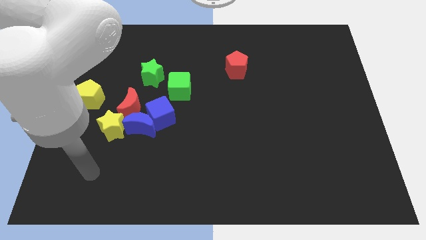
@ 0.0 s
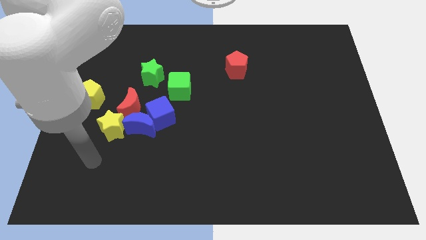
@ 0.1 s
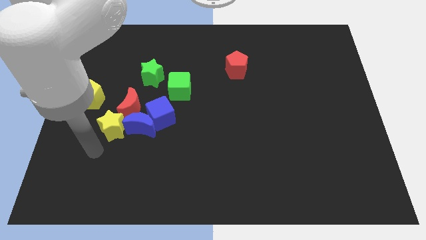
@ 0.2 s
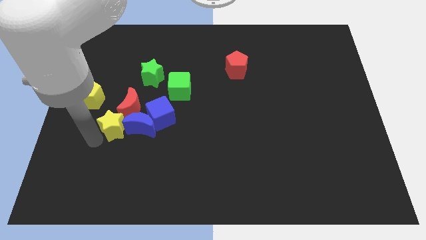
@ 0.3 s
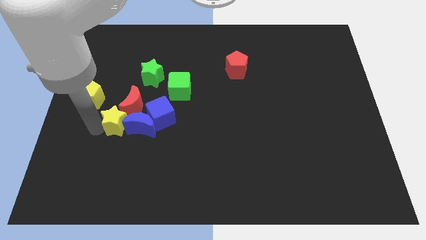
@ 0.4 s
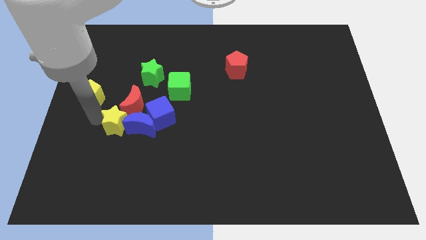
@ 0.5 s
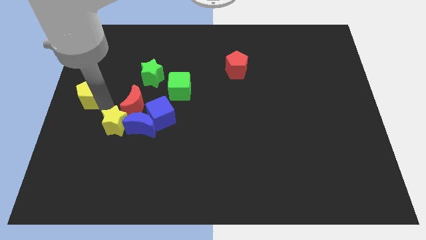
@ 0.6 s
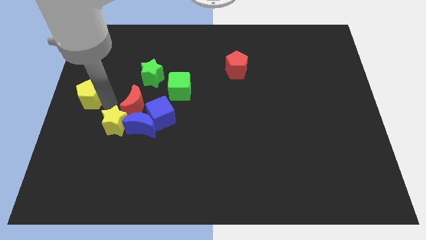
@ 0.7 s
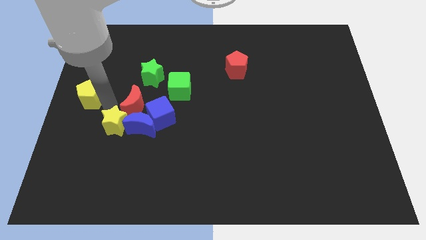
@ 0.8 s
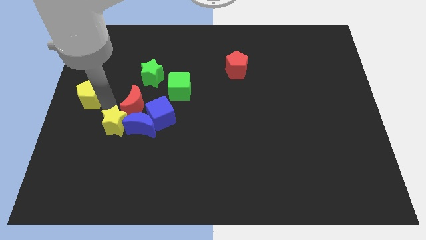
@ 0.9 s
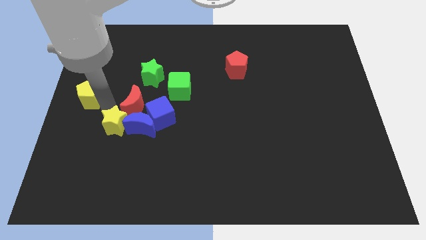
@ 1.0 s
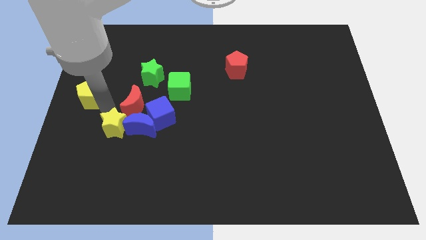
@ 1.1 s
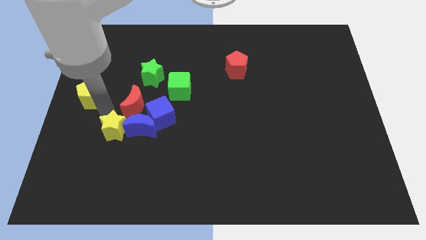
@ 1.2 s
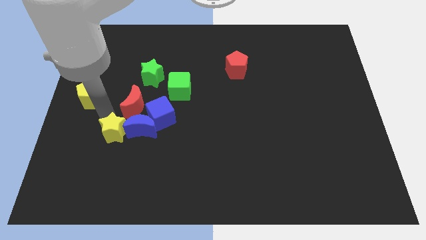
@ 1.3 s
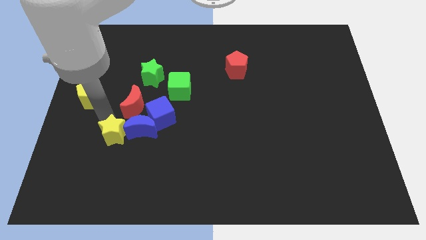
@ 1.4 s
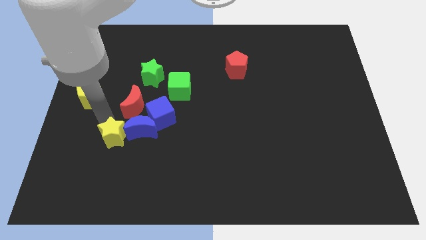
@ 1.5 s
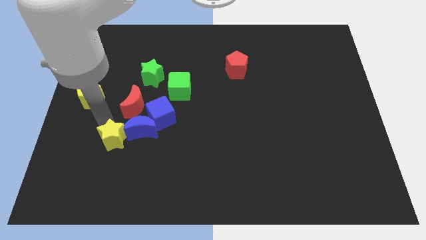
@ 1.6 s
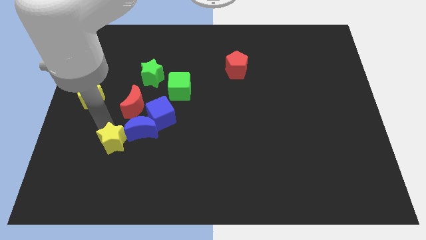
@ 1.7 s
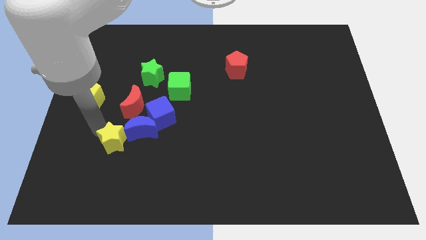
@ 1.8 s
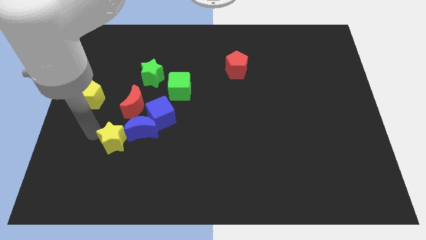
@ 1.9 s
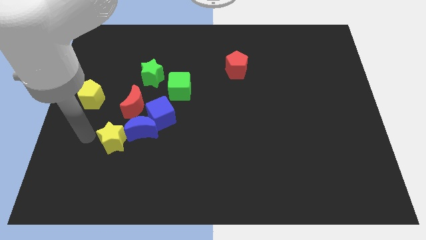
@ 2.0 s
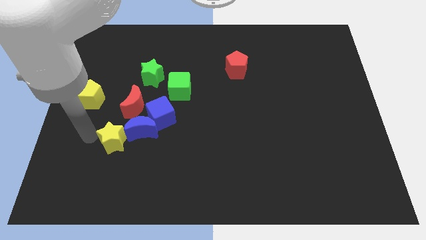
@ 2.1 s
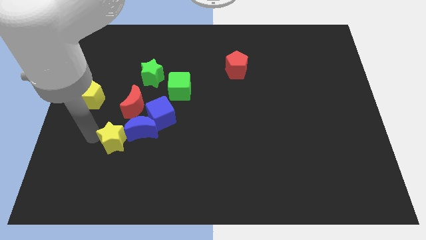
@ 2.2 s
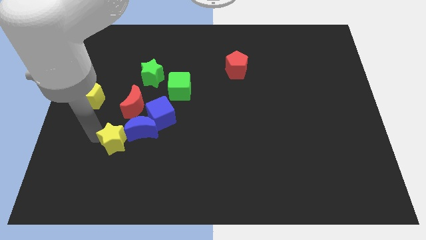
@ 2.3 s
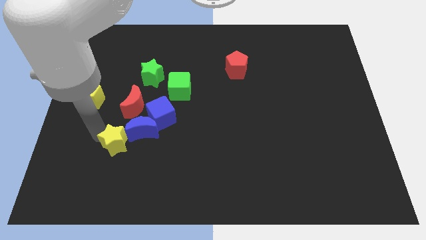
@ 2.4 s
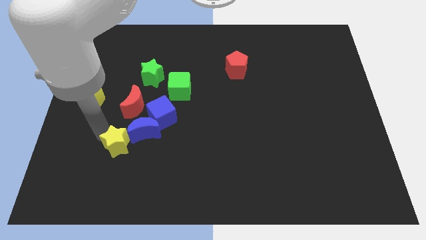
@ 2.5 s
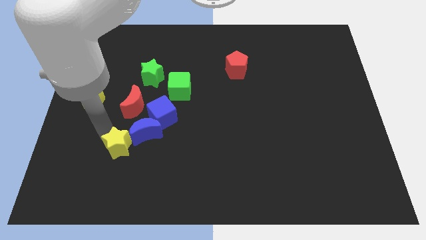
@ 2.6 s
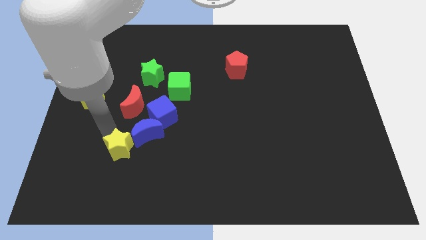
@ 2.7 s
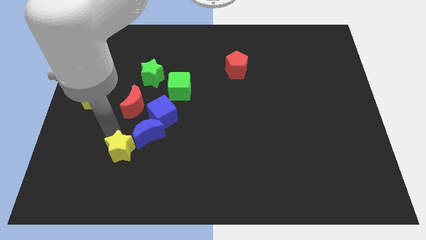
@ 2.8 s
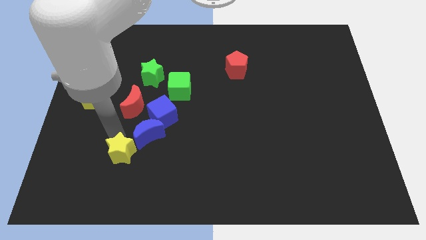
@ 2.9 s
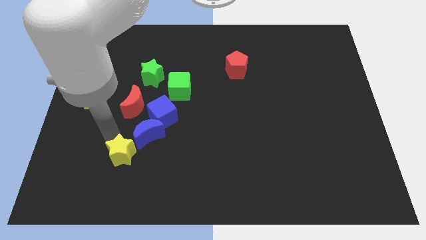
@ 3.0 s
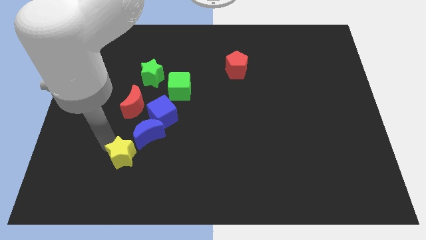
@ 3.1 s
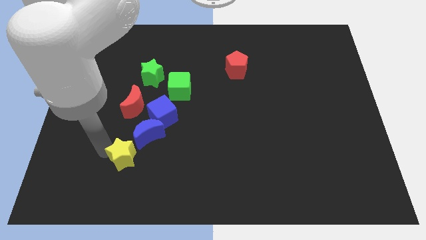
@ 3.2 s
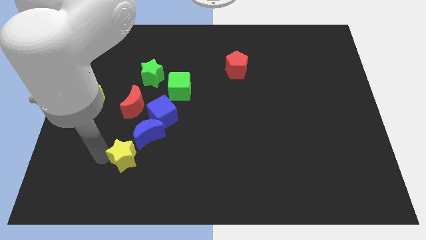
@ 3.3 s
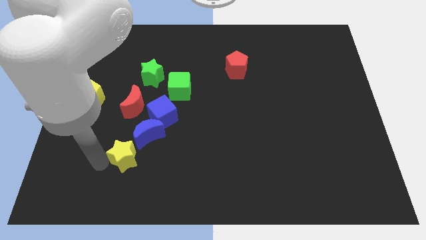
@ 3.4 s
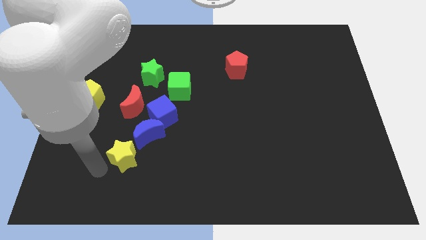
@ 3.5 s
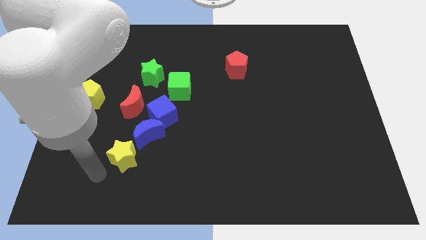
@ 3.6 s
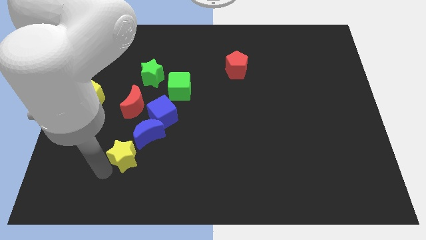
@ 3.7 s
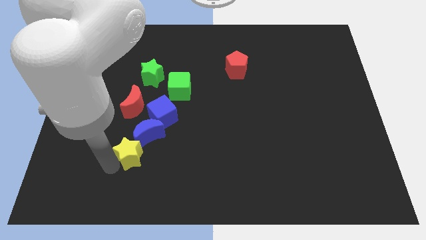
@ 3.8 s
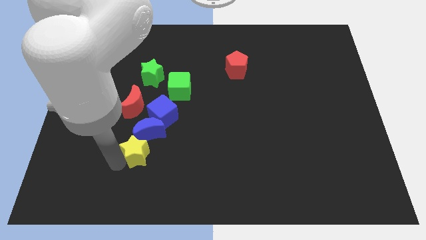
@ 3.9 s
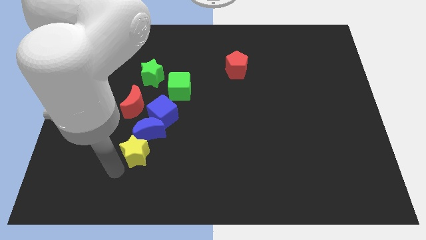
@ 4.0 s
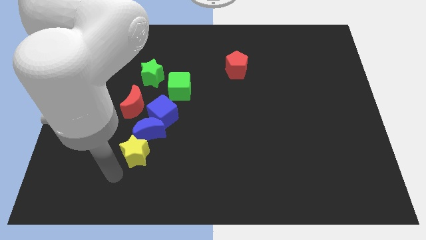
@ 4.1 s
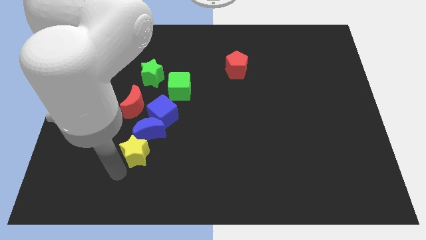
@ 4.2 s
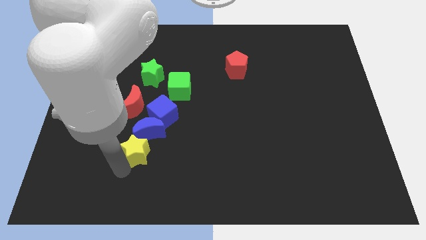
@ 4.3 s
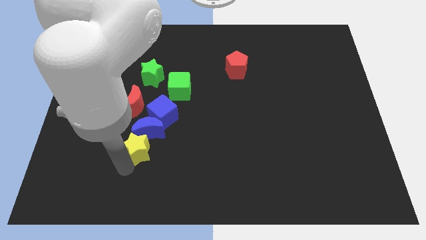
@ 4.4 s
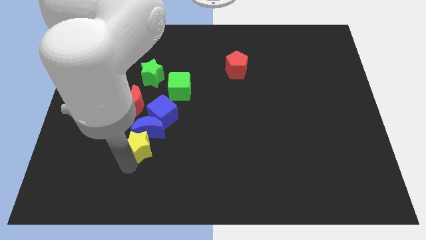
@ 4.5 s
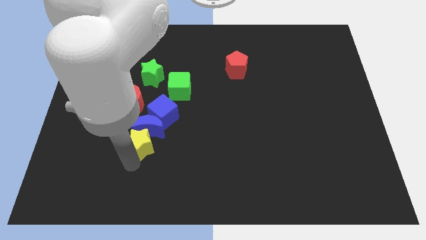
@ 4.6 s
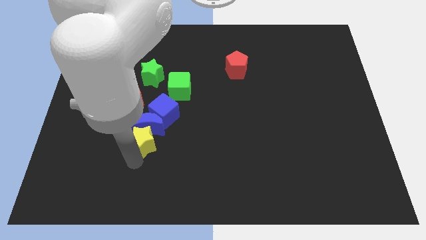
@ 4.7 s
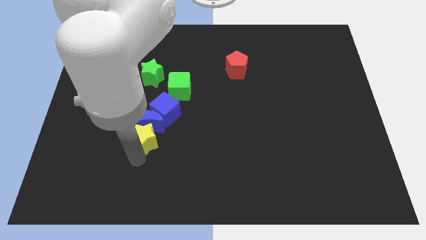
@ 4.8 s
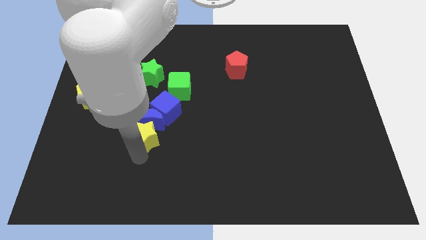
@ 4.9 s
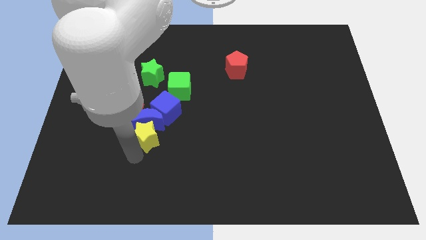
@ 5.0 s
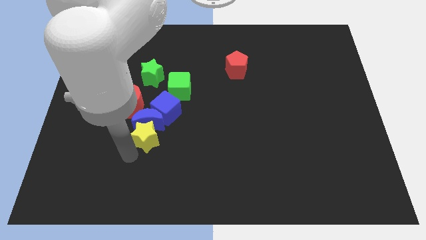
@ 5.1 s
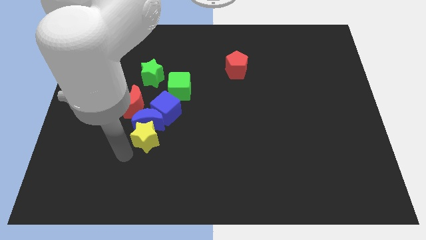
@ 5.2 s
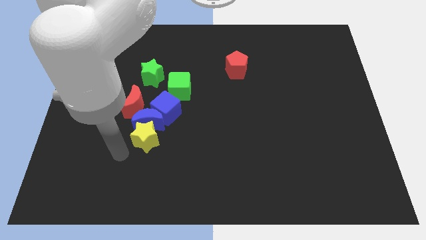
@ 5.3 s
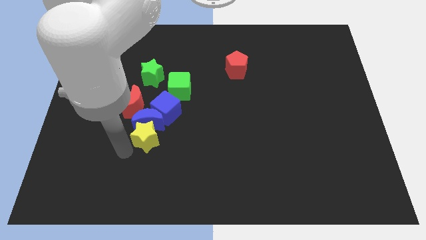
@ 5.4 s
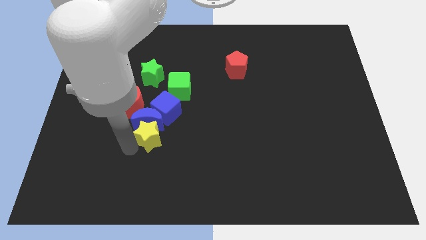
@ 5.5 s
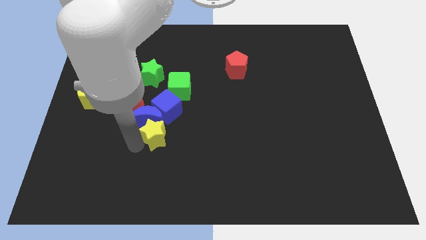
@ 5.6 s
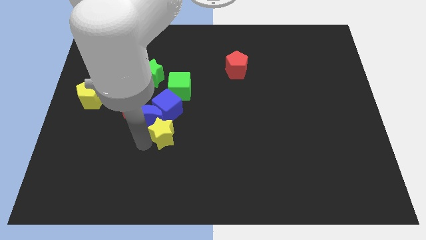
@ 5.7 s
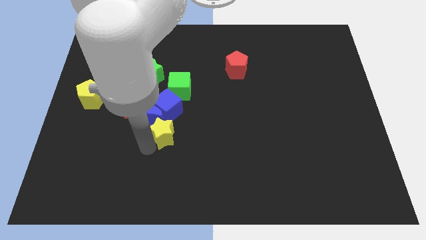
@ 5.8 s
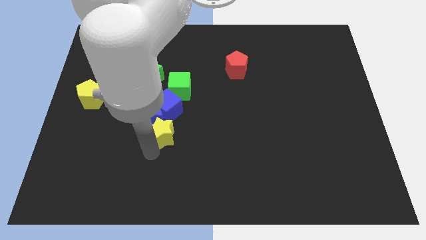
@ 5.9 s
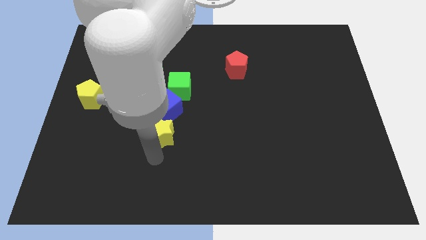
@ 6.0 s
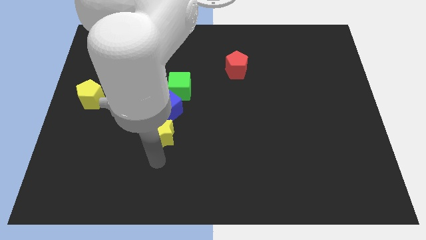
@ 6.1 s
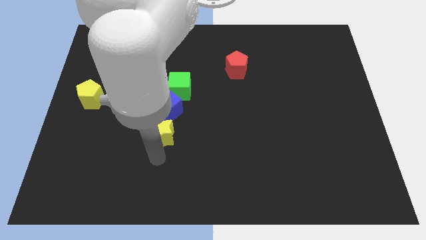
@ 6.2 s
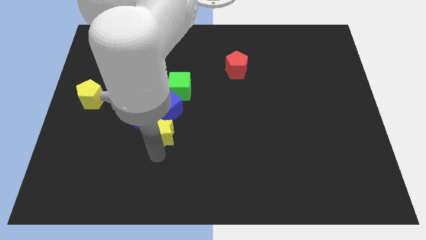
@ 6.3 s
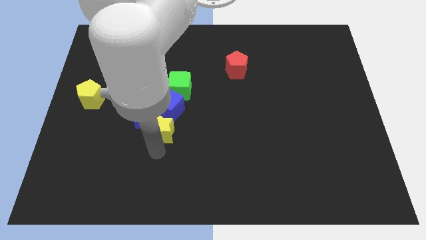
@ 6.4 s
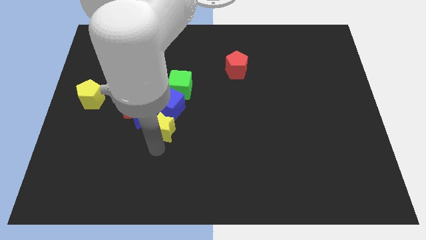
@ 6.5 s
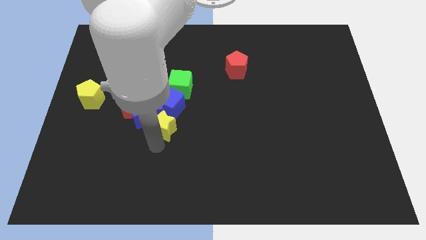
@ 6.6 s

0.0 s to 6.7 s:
put the yellow star next to the blue cube

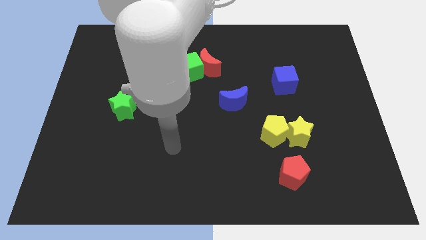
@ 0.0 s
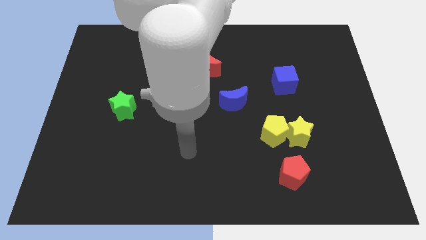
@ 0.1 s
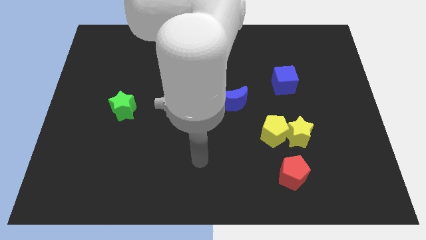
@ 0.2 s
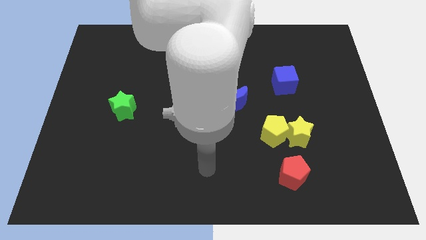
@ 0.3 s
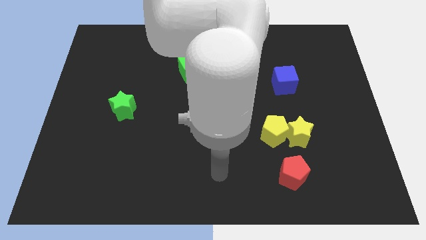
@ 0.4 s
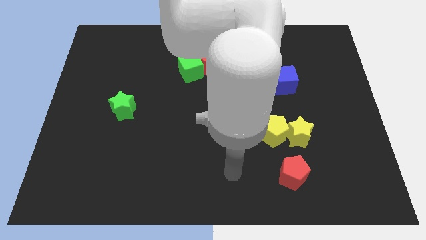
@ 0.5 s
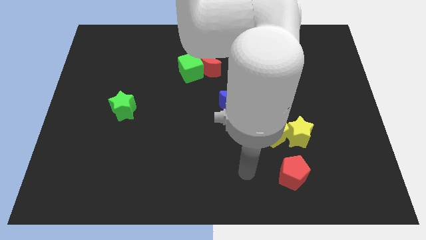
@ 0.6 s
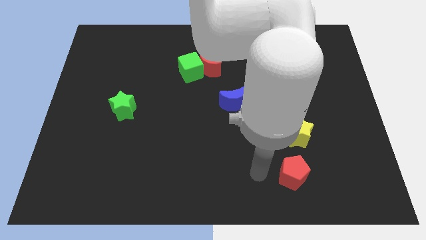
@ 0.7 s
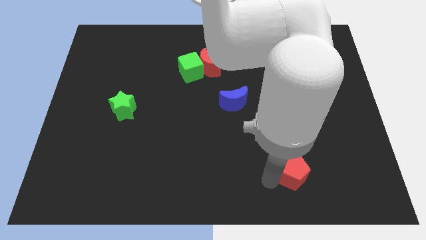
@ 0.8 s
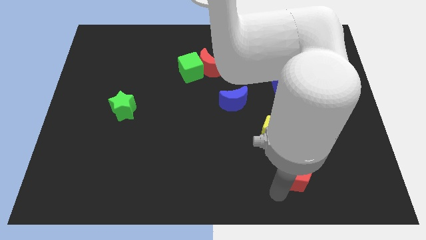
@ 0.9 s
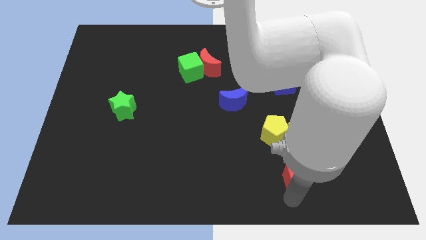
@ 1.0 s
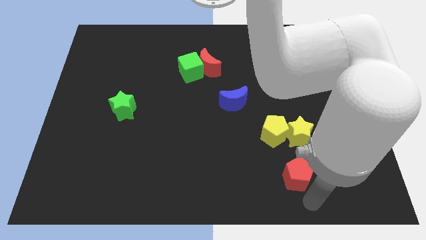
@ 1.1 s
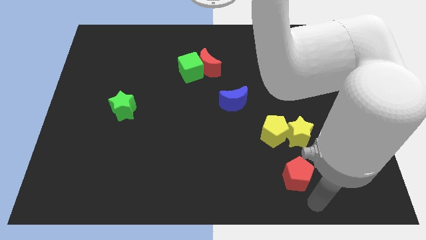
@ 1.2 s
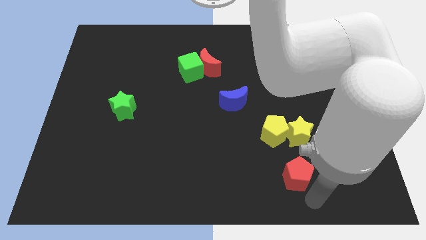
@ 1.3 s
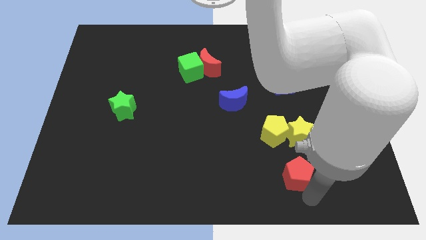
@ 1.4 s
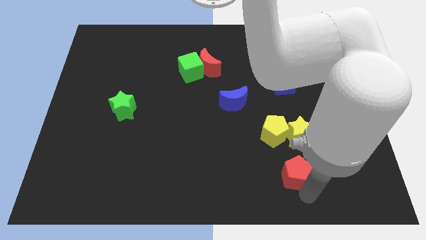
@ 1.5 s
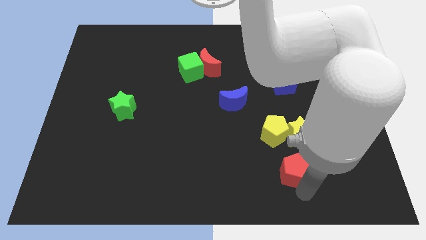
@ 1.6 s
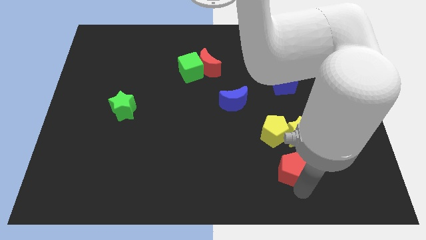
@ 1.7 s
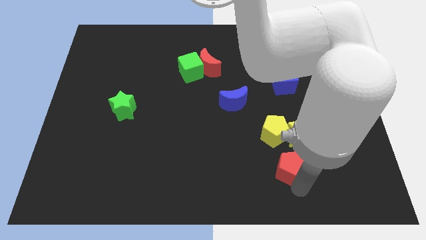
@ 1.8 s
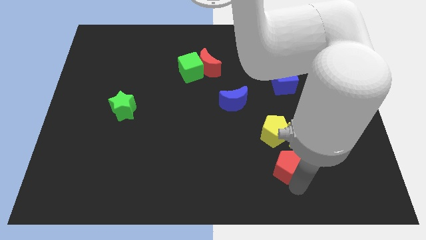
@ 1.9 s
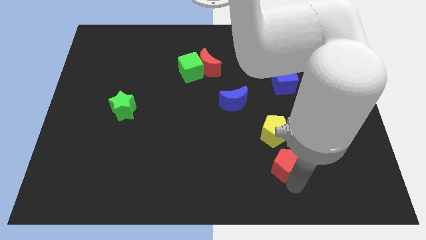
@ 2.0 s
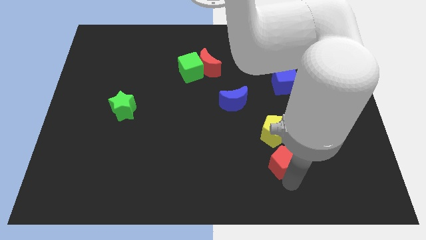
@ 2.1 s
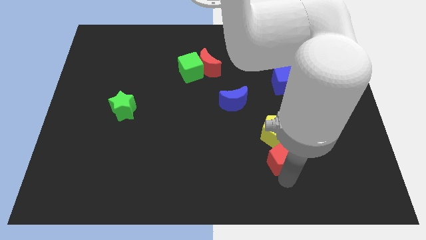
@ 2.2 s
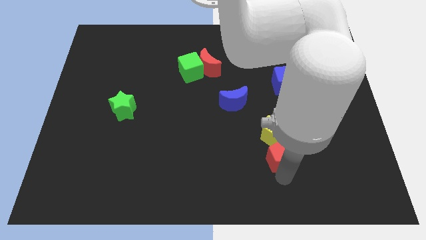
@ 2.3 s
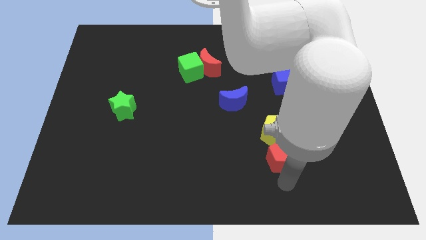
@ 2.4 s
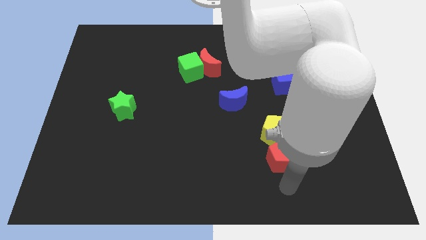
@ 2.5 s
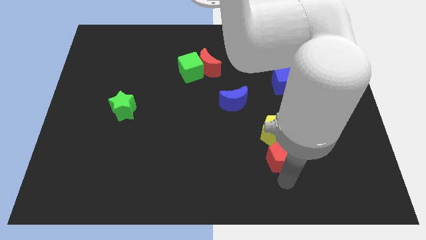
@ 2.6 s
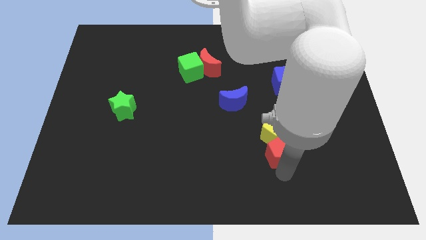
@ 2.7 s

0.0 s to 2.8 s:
put the red pentagon towards the yellow pentagon
